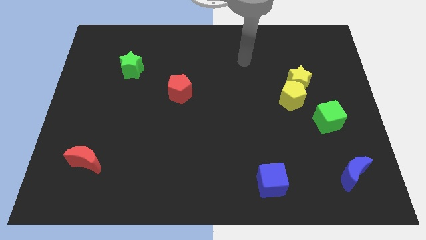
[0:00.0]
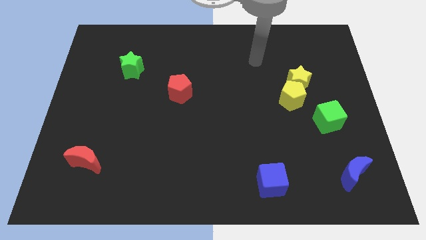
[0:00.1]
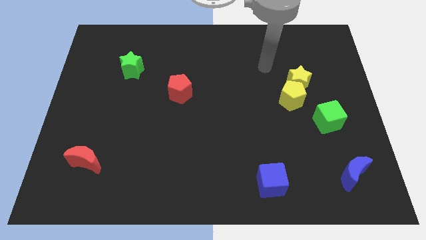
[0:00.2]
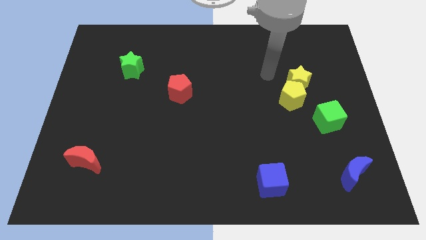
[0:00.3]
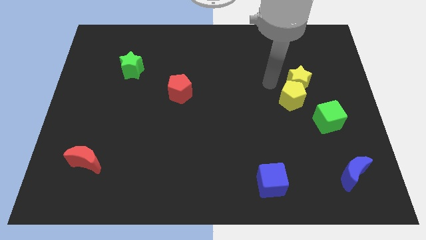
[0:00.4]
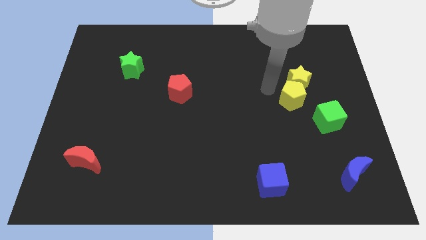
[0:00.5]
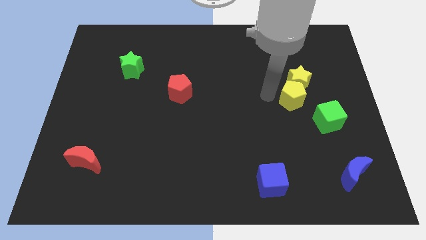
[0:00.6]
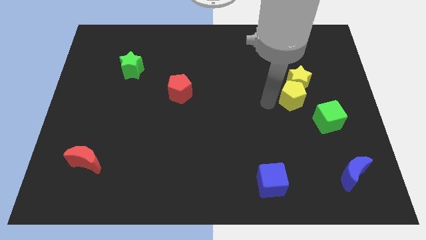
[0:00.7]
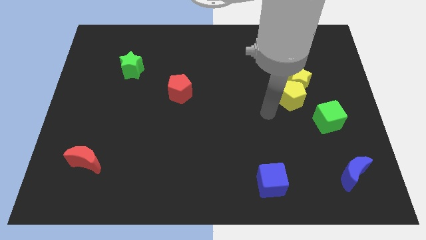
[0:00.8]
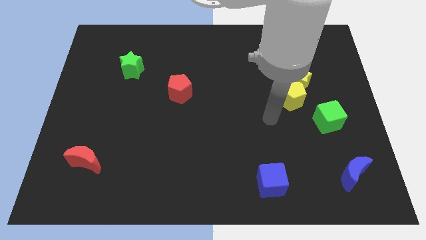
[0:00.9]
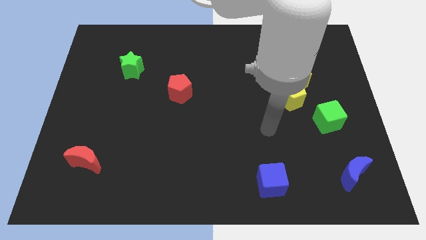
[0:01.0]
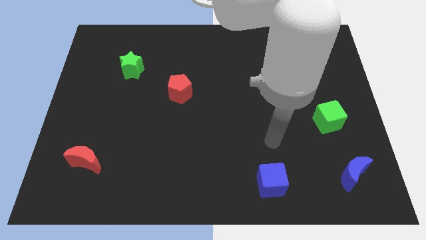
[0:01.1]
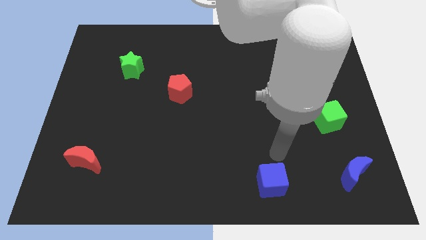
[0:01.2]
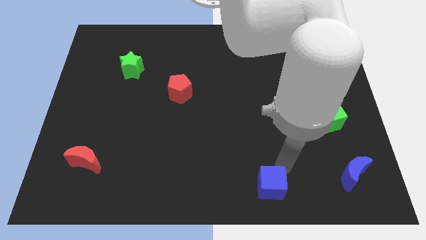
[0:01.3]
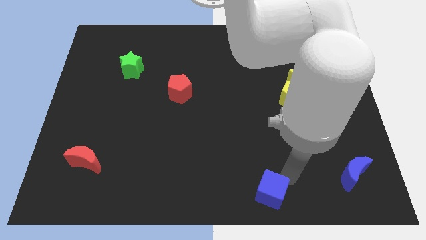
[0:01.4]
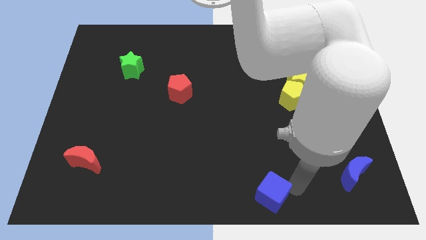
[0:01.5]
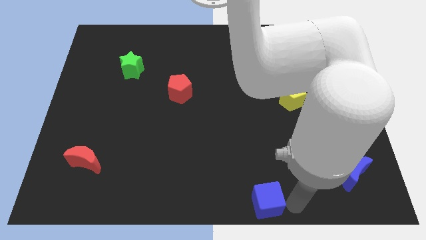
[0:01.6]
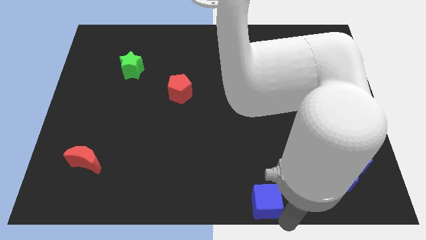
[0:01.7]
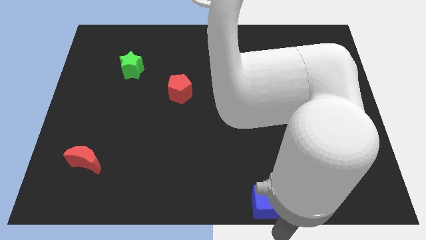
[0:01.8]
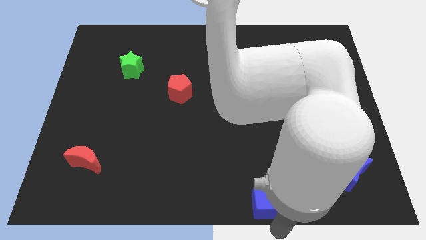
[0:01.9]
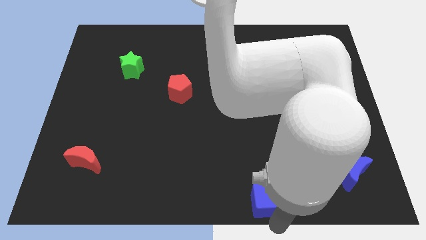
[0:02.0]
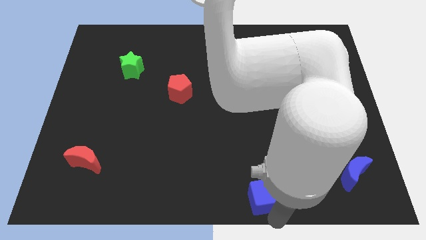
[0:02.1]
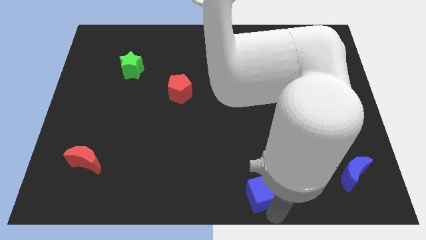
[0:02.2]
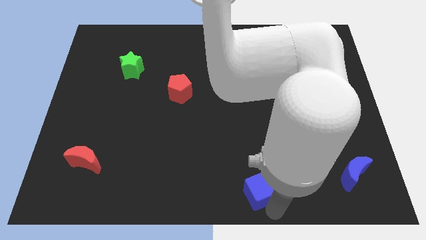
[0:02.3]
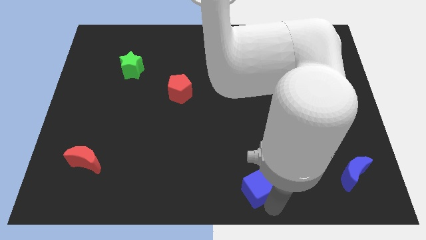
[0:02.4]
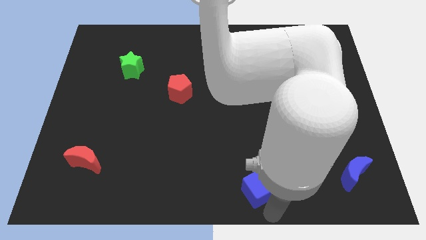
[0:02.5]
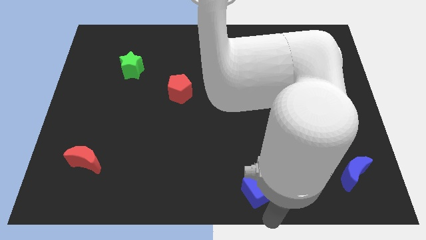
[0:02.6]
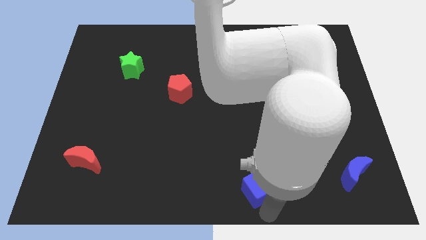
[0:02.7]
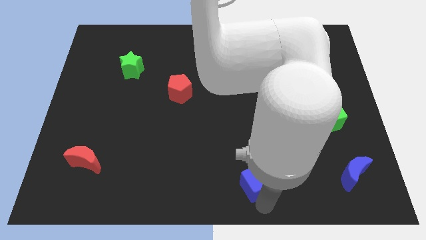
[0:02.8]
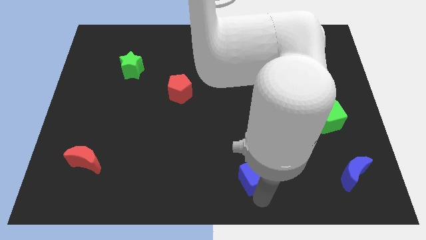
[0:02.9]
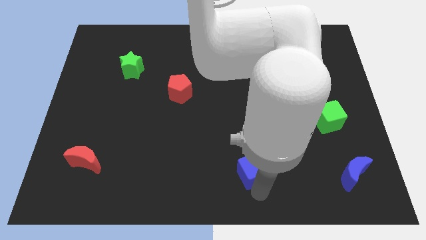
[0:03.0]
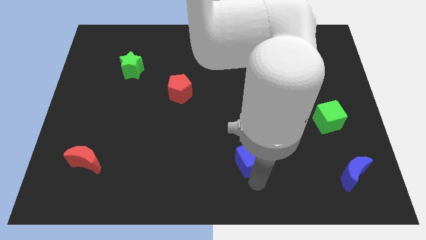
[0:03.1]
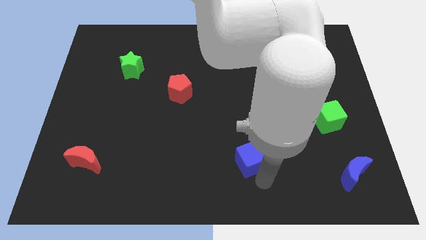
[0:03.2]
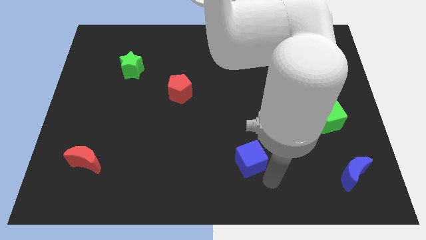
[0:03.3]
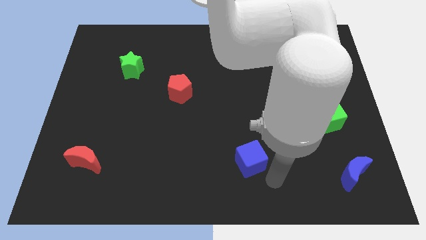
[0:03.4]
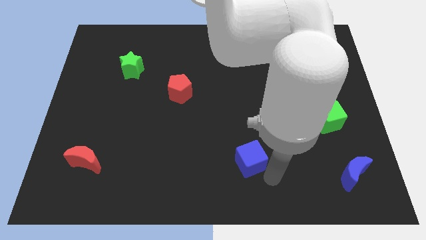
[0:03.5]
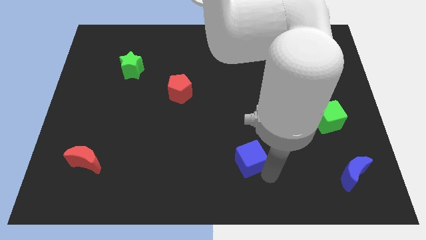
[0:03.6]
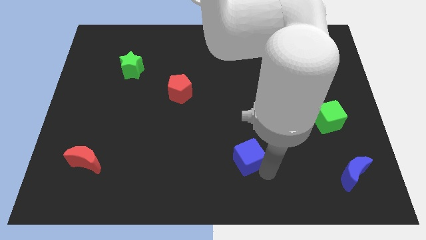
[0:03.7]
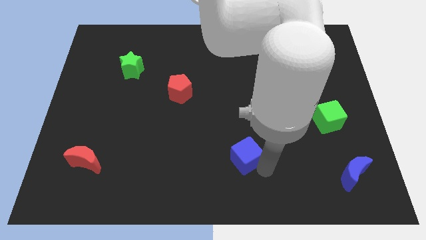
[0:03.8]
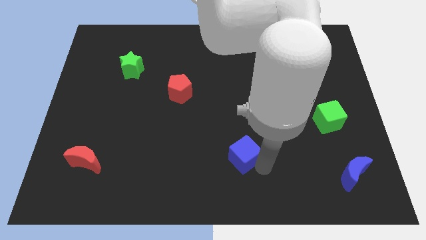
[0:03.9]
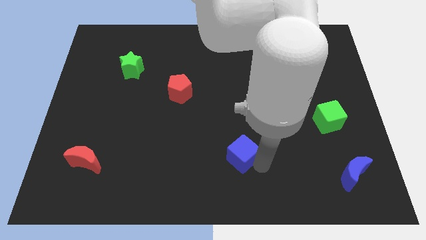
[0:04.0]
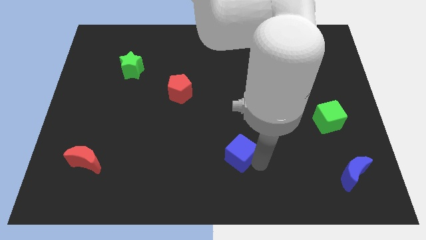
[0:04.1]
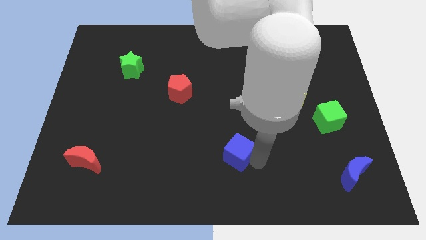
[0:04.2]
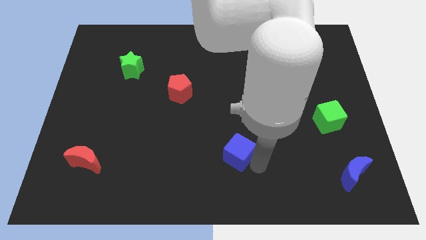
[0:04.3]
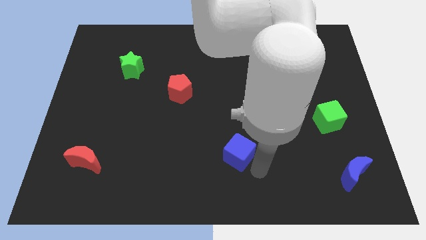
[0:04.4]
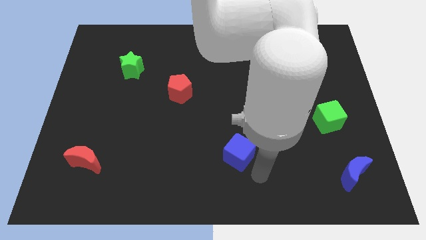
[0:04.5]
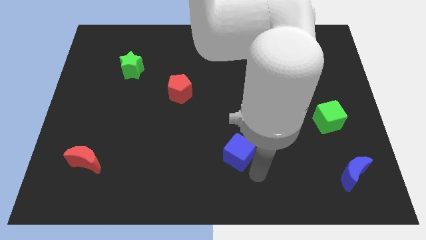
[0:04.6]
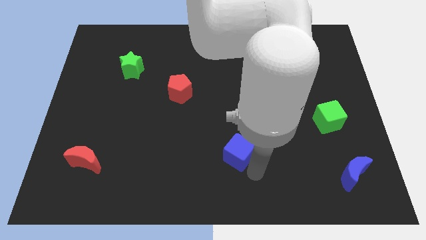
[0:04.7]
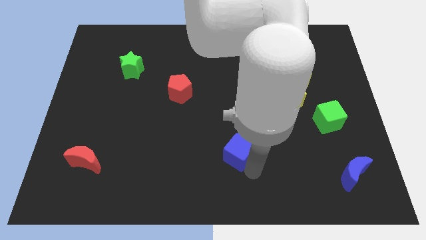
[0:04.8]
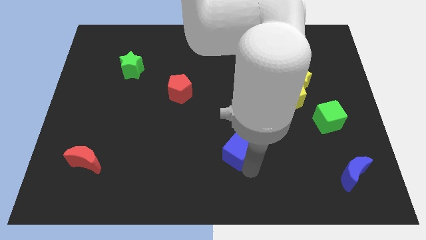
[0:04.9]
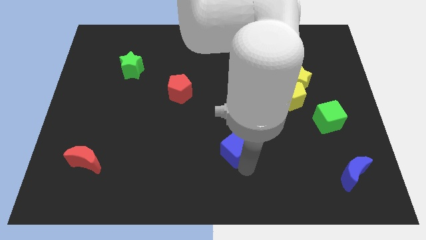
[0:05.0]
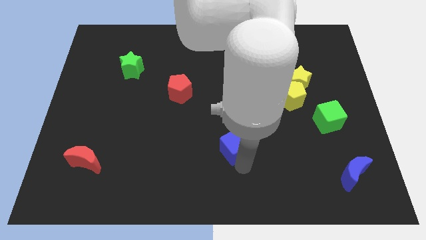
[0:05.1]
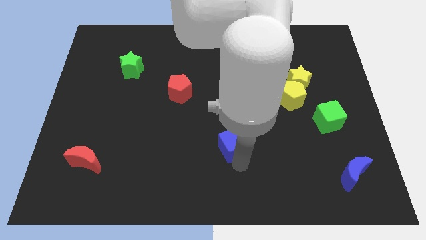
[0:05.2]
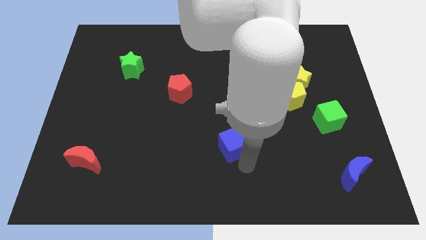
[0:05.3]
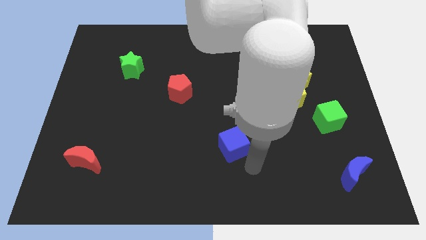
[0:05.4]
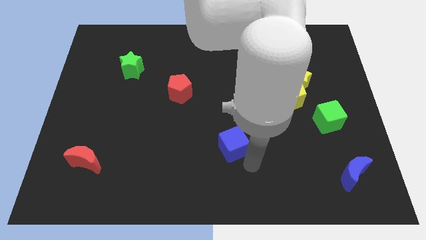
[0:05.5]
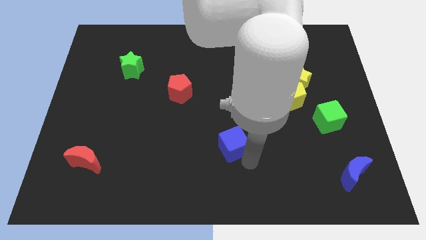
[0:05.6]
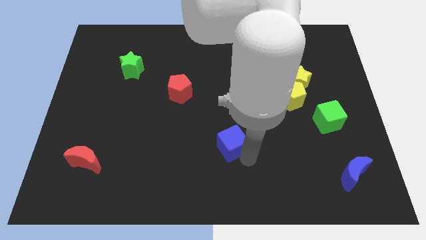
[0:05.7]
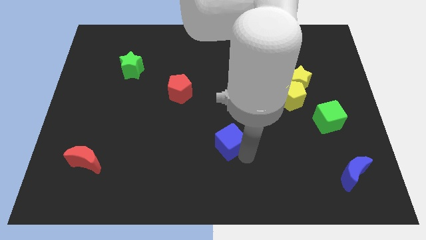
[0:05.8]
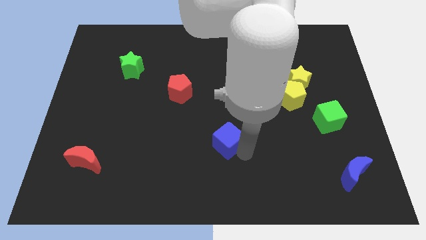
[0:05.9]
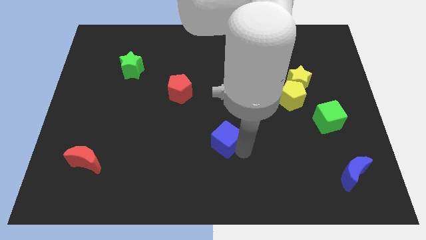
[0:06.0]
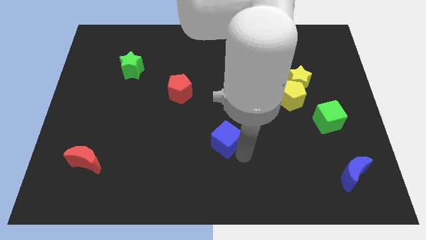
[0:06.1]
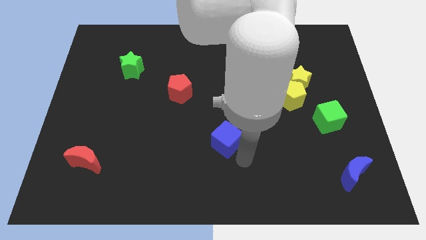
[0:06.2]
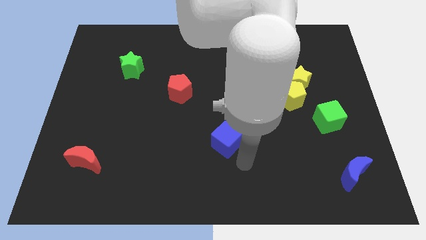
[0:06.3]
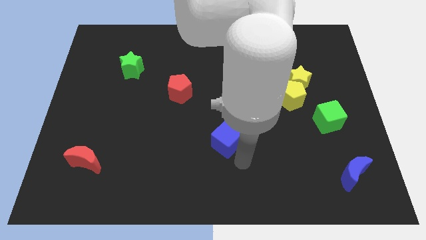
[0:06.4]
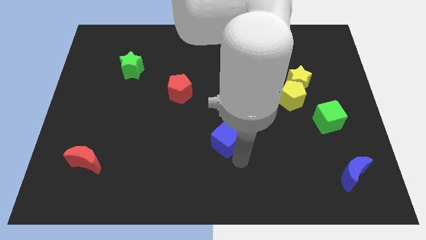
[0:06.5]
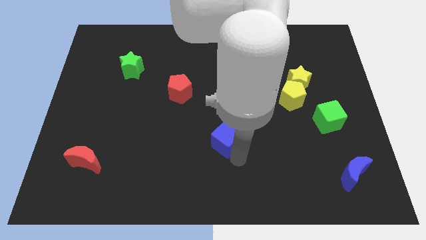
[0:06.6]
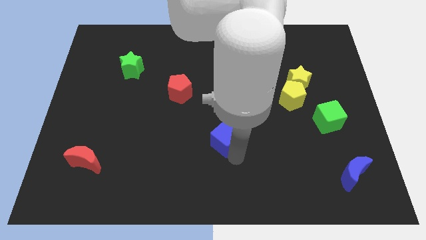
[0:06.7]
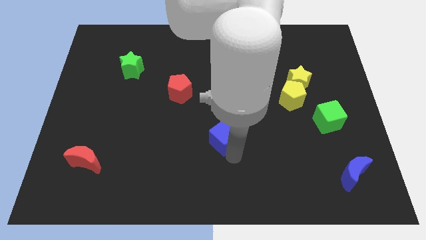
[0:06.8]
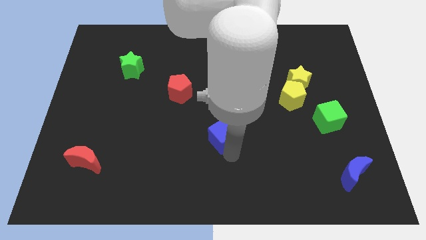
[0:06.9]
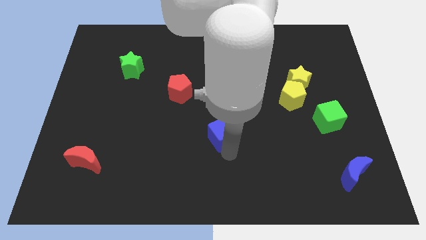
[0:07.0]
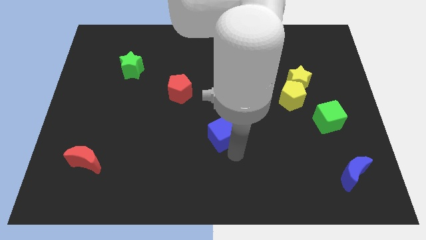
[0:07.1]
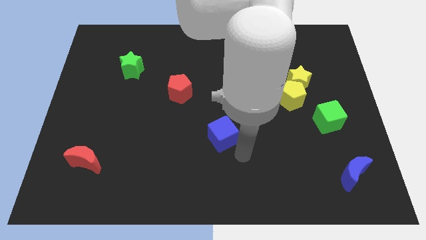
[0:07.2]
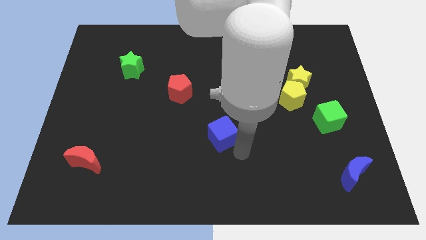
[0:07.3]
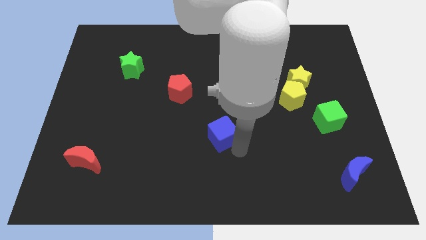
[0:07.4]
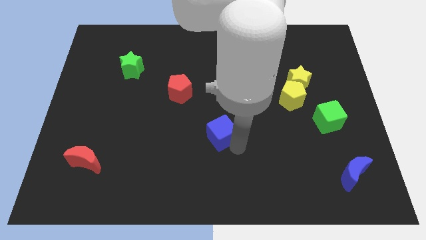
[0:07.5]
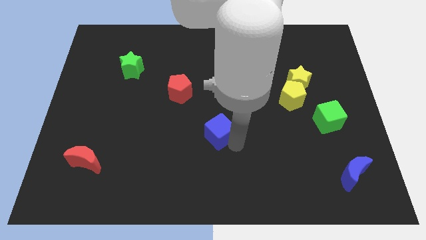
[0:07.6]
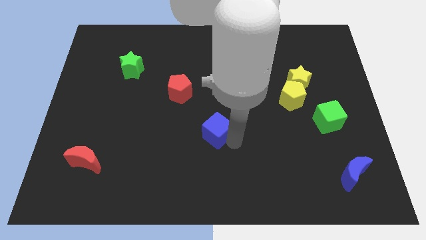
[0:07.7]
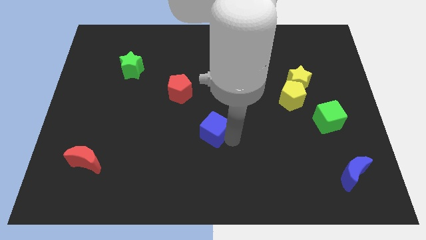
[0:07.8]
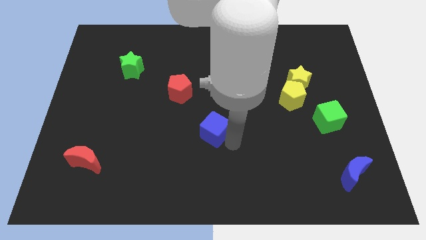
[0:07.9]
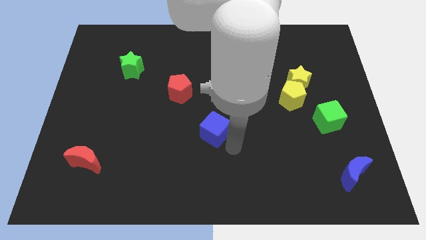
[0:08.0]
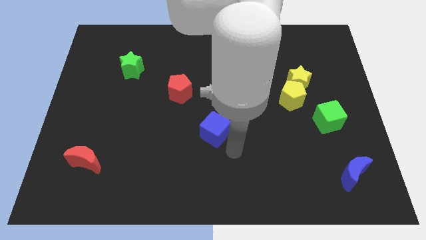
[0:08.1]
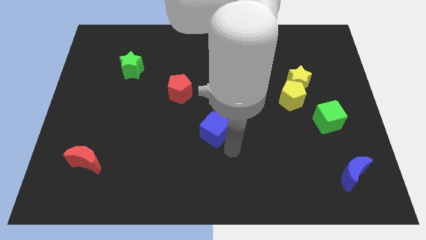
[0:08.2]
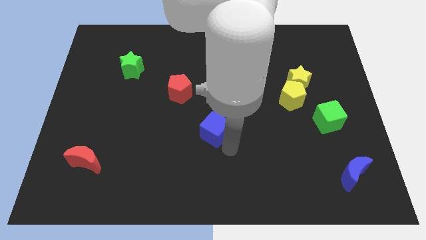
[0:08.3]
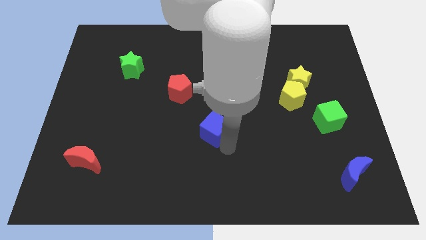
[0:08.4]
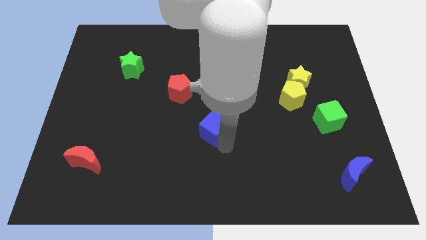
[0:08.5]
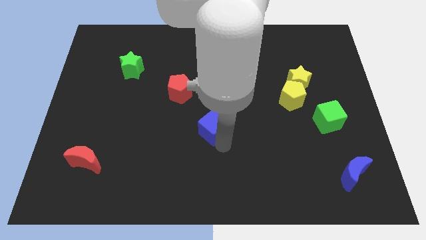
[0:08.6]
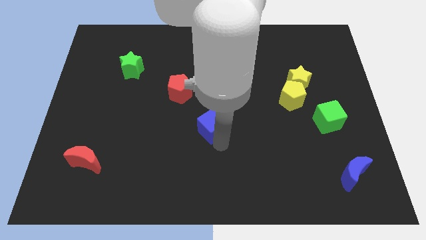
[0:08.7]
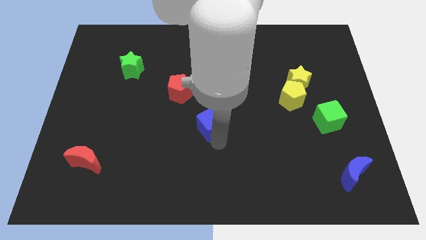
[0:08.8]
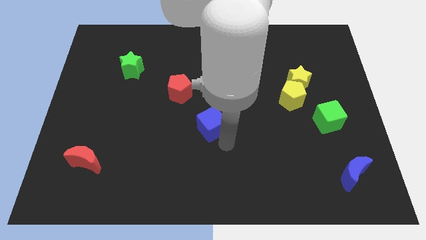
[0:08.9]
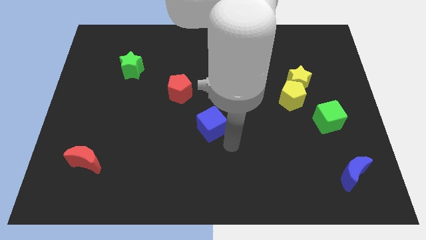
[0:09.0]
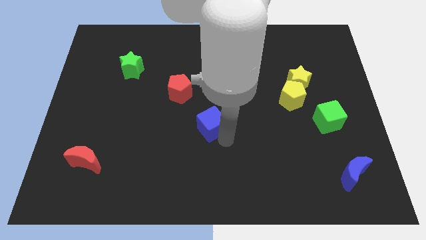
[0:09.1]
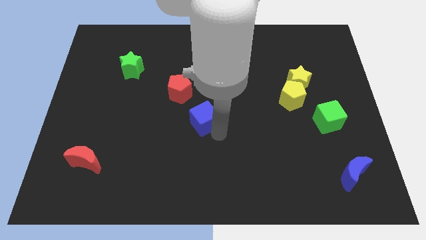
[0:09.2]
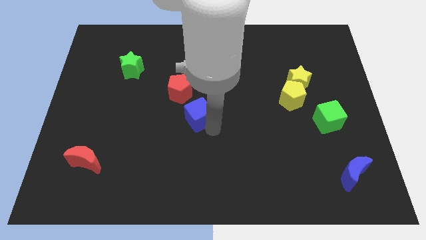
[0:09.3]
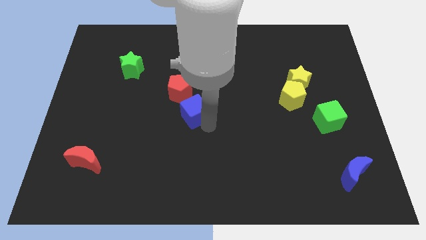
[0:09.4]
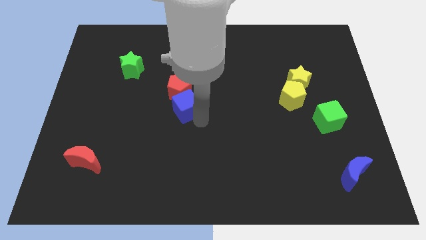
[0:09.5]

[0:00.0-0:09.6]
push the blue cube close to the red pentagon
